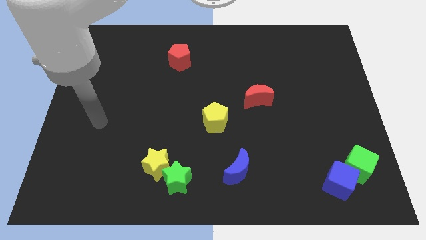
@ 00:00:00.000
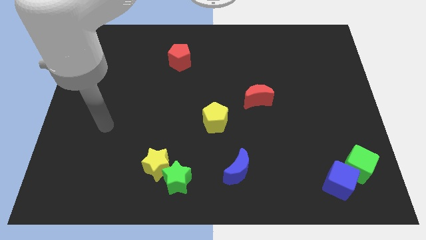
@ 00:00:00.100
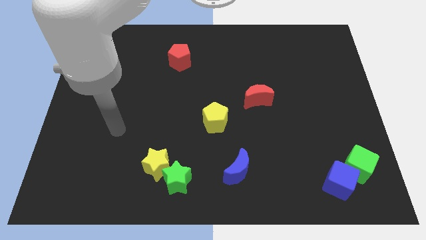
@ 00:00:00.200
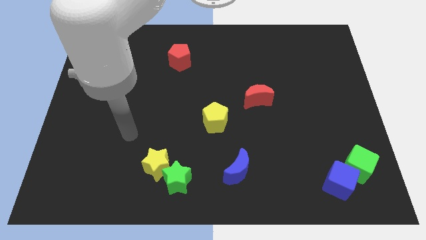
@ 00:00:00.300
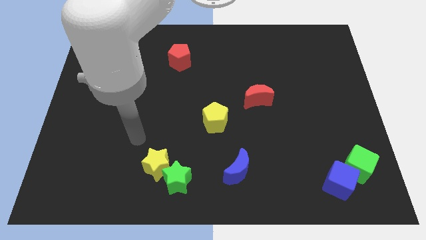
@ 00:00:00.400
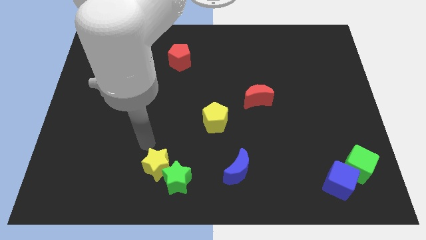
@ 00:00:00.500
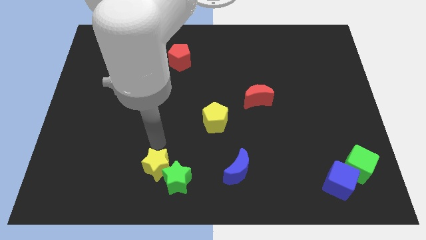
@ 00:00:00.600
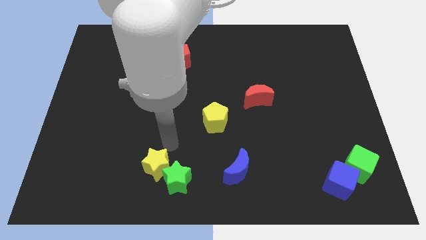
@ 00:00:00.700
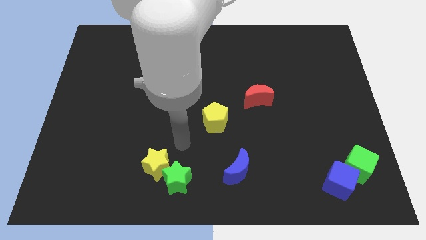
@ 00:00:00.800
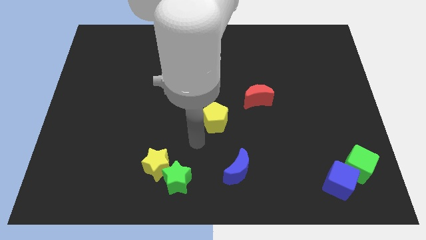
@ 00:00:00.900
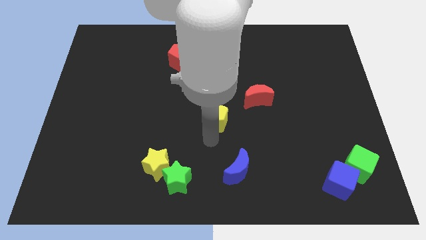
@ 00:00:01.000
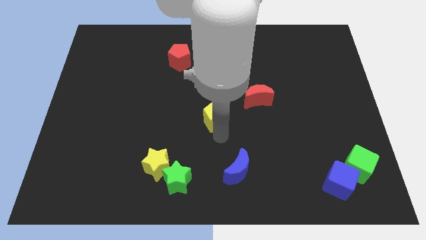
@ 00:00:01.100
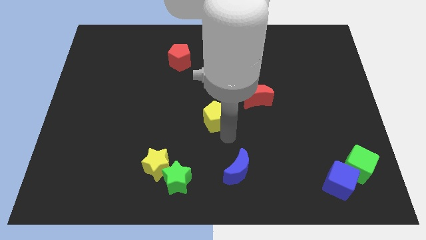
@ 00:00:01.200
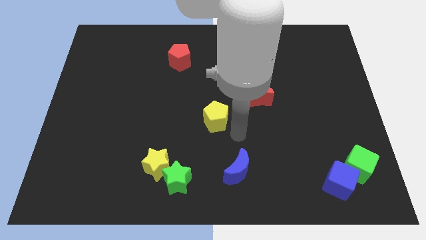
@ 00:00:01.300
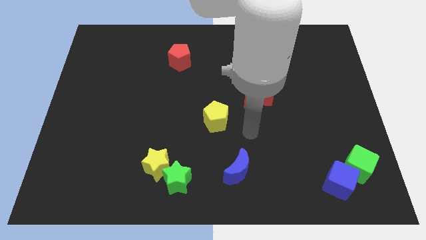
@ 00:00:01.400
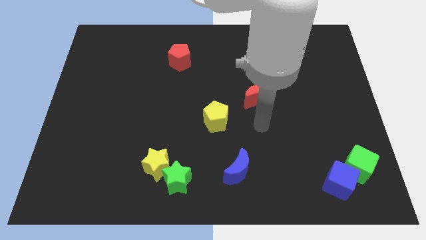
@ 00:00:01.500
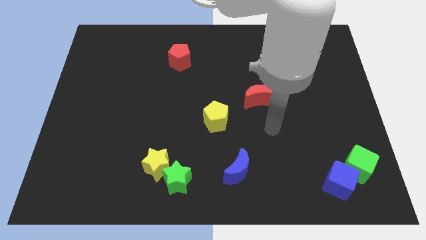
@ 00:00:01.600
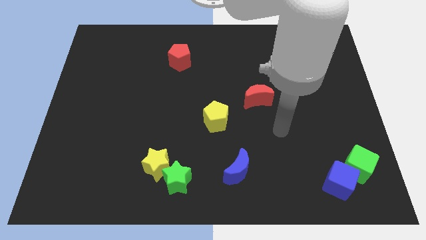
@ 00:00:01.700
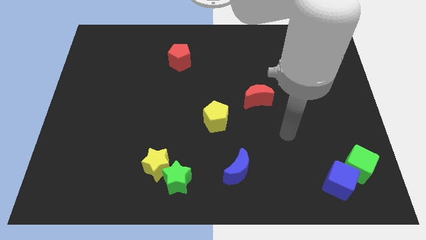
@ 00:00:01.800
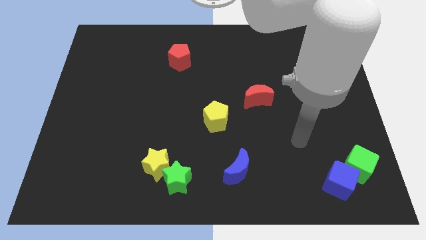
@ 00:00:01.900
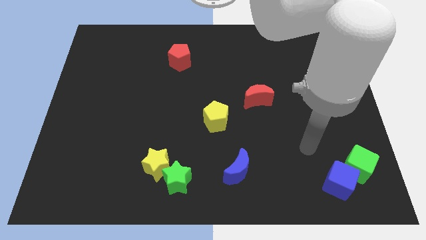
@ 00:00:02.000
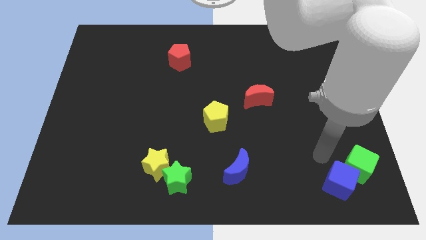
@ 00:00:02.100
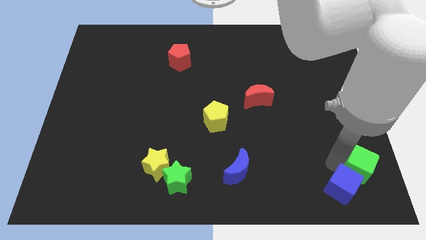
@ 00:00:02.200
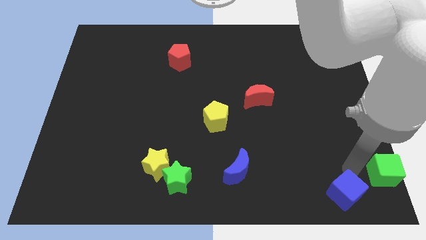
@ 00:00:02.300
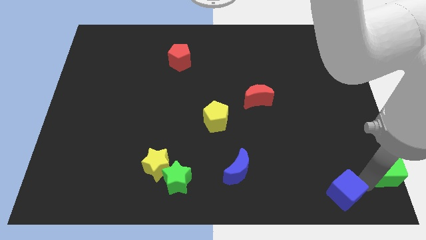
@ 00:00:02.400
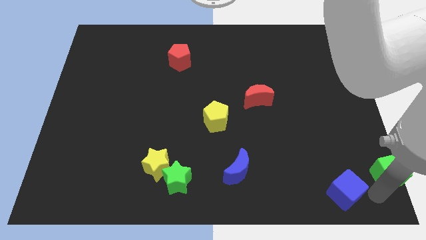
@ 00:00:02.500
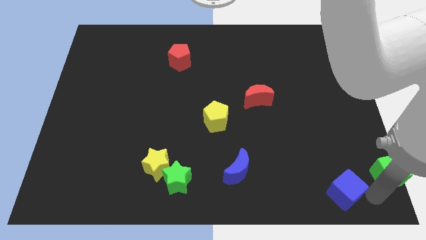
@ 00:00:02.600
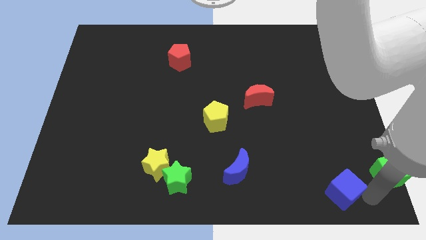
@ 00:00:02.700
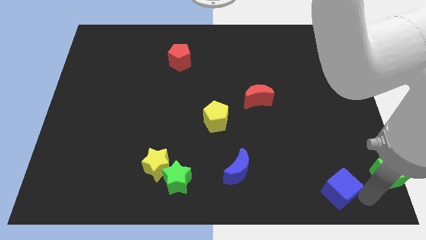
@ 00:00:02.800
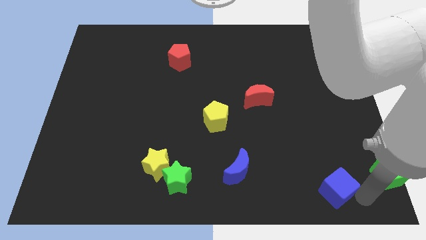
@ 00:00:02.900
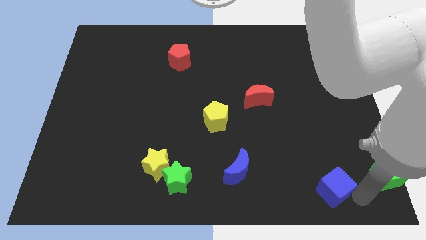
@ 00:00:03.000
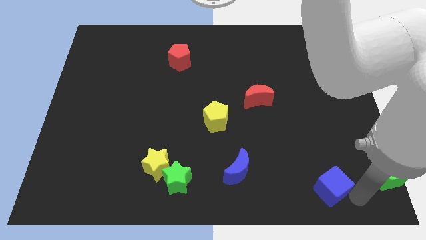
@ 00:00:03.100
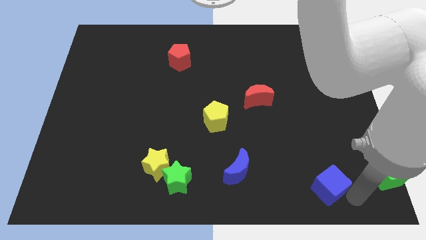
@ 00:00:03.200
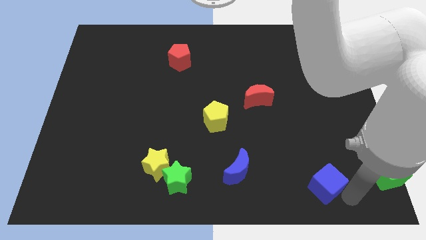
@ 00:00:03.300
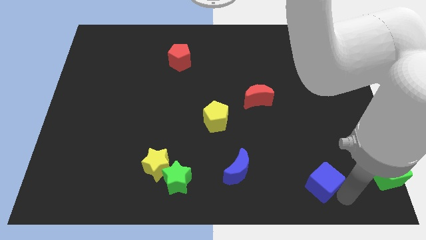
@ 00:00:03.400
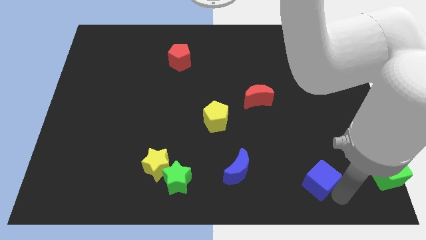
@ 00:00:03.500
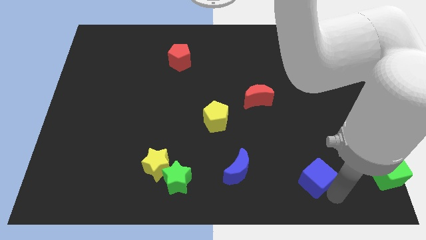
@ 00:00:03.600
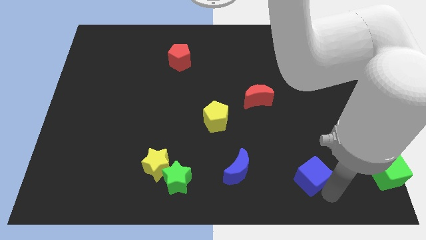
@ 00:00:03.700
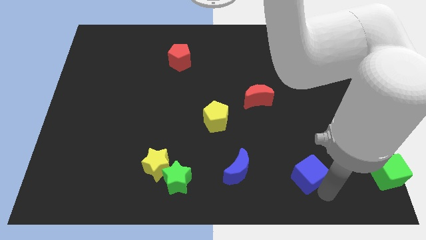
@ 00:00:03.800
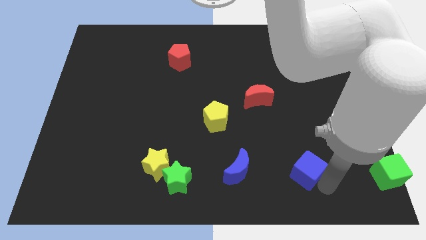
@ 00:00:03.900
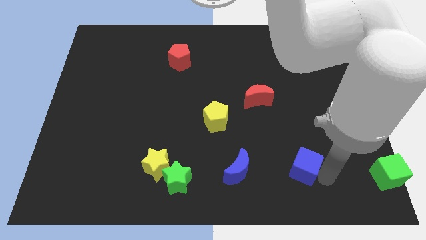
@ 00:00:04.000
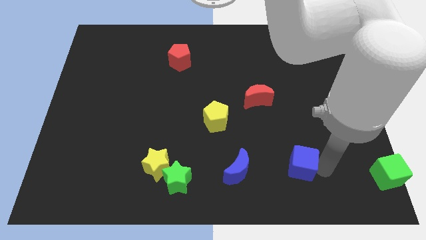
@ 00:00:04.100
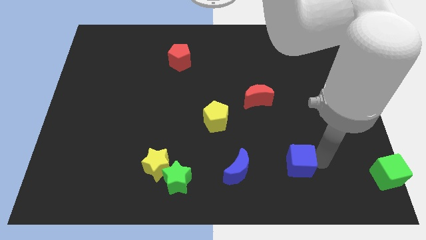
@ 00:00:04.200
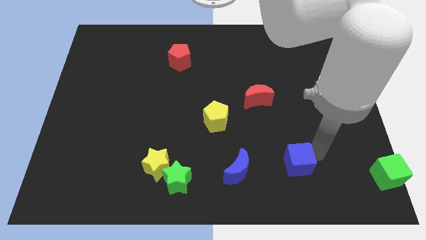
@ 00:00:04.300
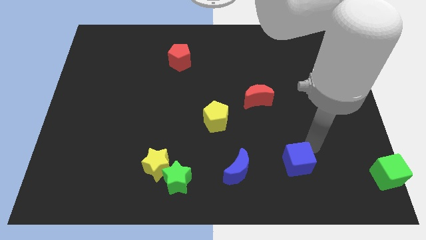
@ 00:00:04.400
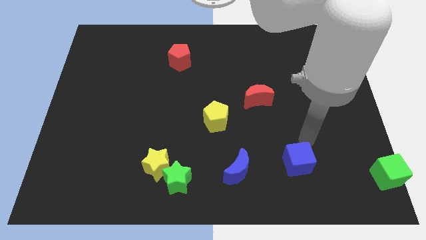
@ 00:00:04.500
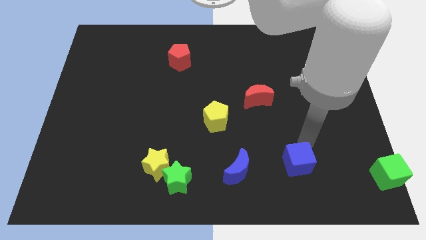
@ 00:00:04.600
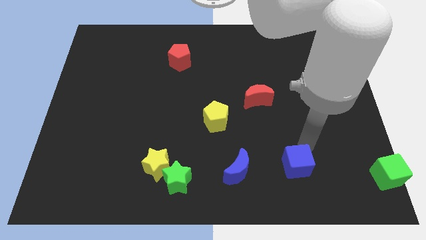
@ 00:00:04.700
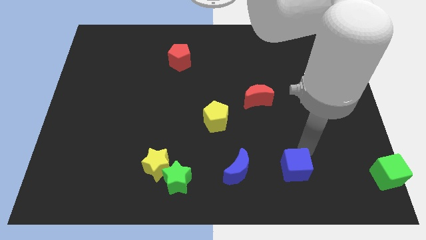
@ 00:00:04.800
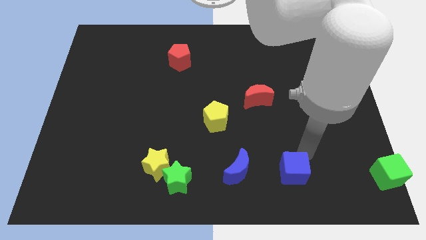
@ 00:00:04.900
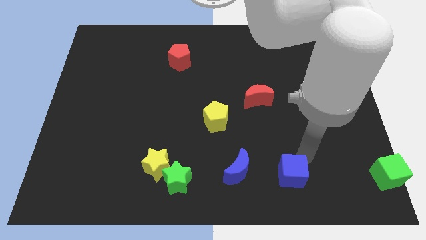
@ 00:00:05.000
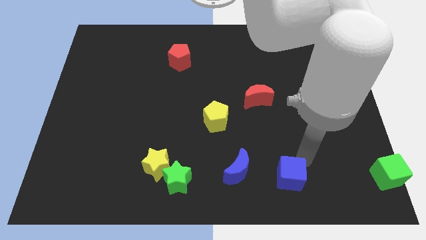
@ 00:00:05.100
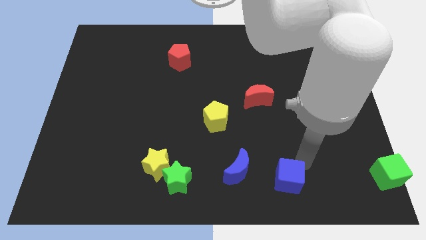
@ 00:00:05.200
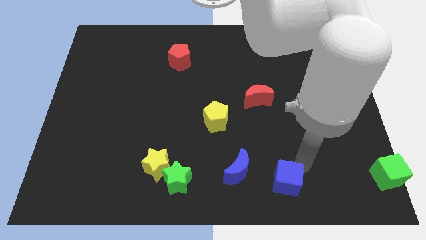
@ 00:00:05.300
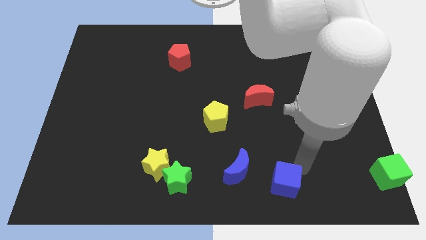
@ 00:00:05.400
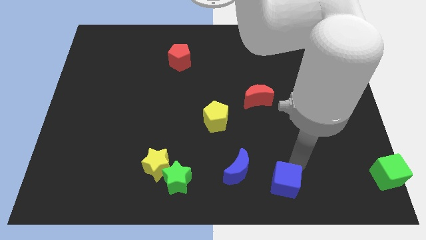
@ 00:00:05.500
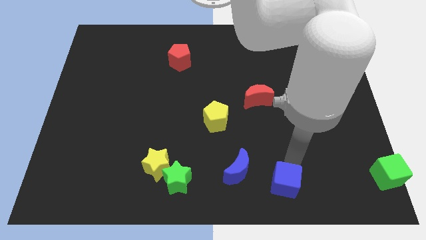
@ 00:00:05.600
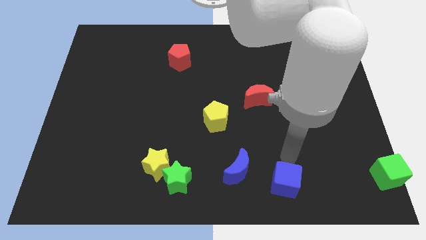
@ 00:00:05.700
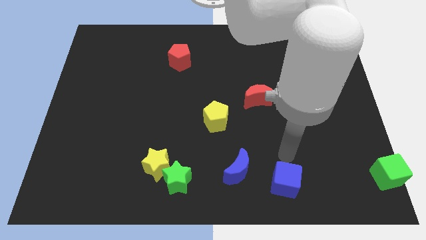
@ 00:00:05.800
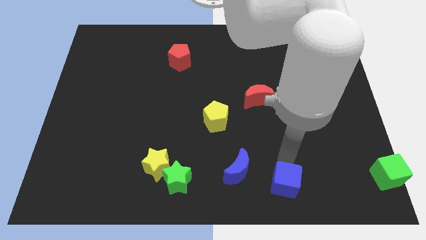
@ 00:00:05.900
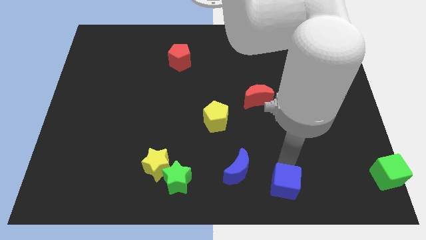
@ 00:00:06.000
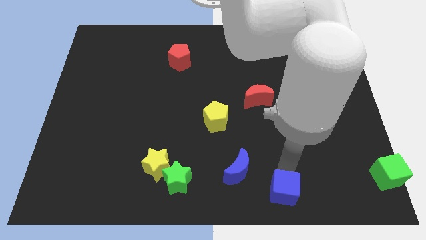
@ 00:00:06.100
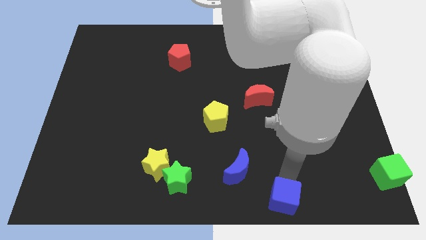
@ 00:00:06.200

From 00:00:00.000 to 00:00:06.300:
put the blue cube to the bottom side
